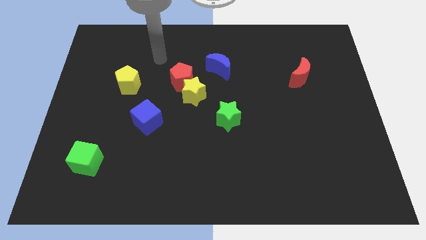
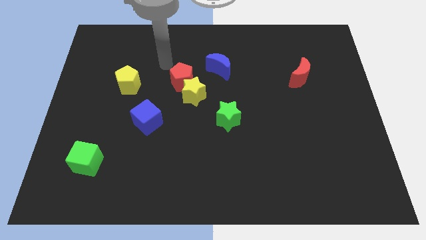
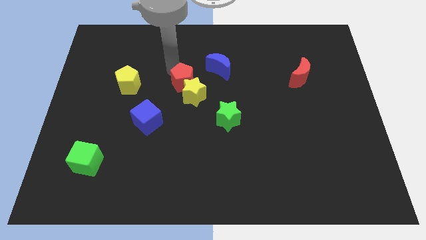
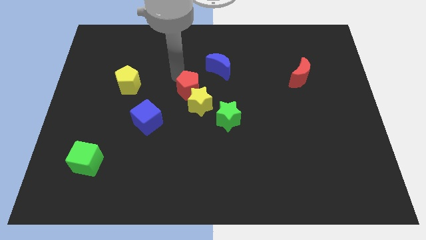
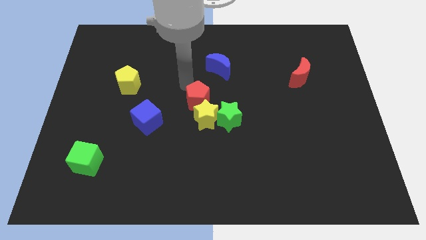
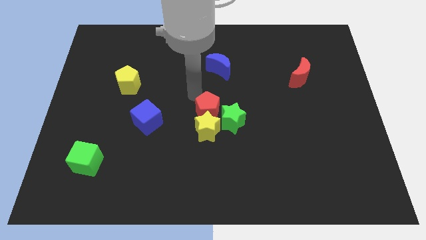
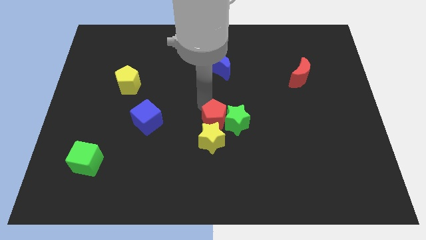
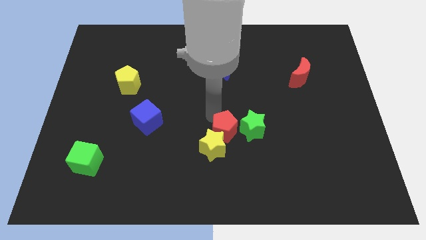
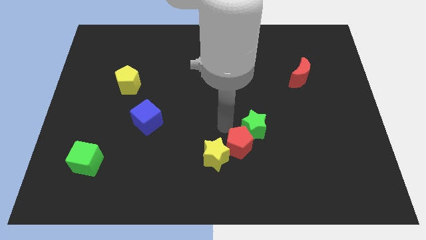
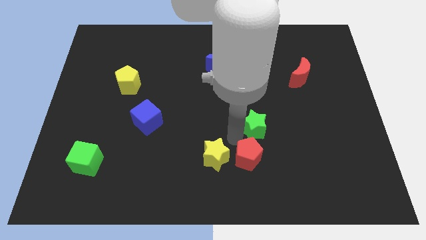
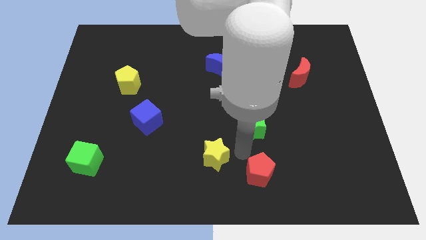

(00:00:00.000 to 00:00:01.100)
separate the yellow star from the red pentagon

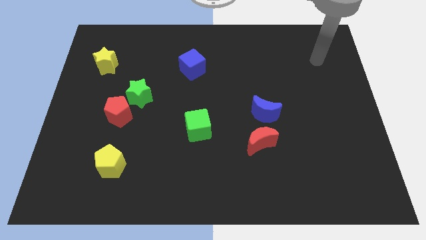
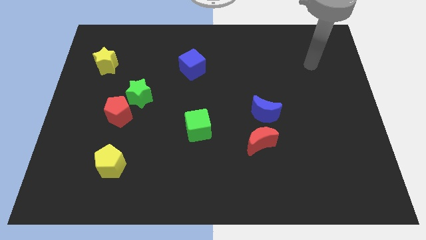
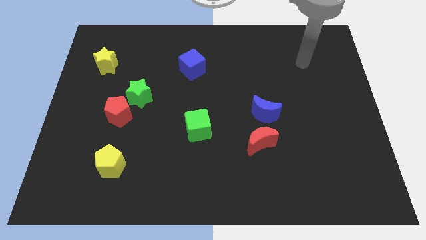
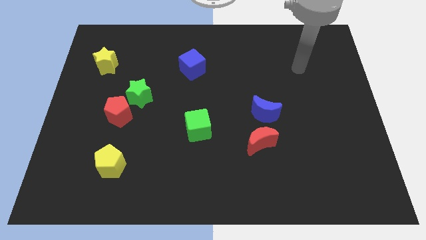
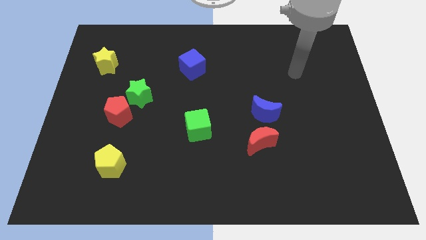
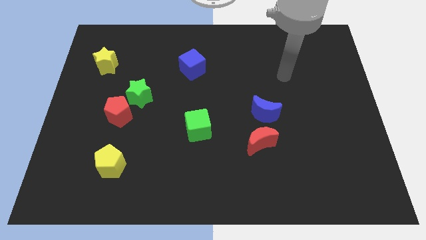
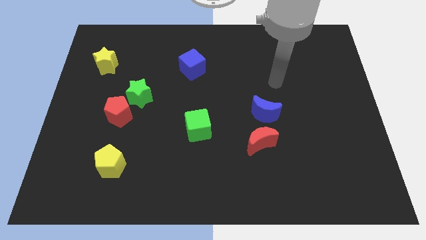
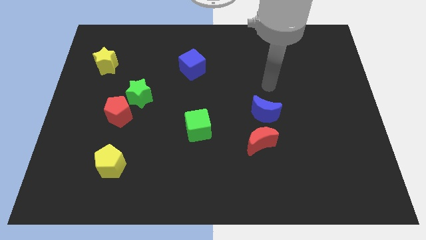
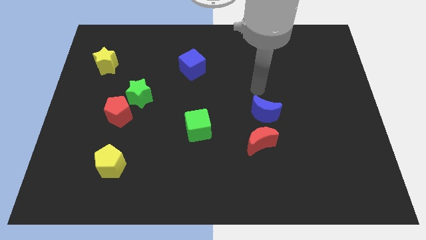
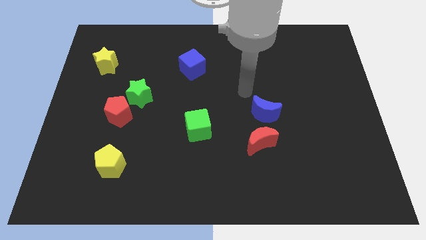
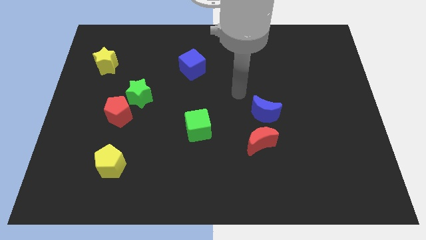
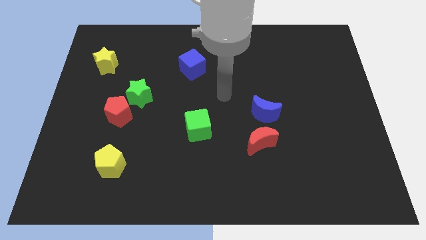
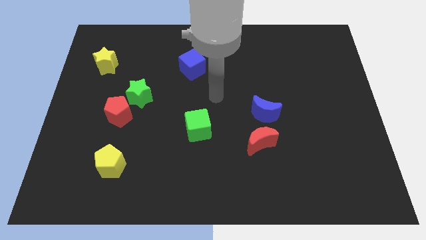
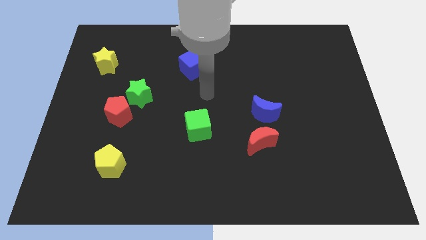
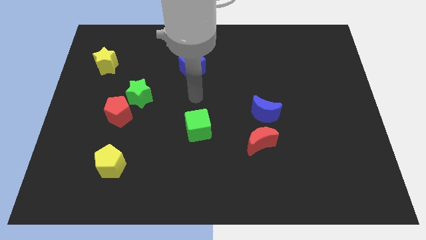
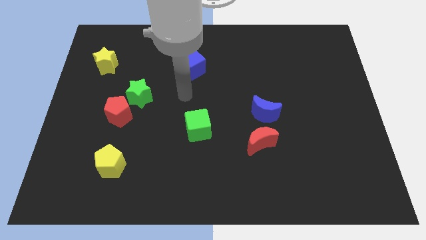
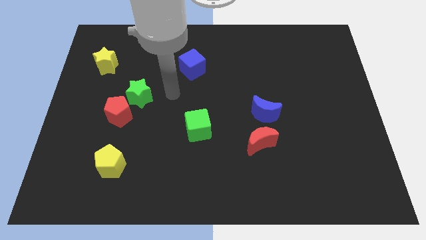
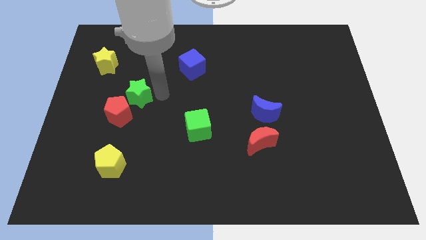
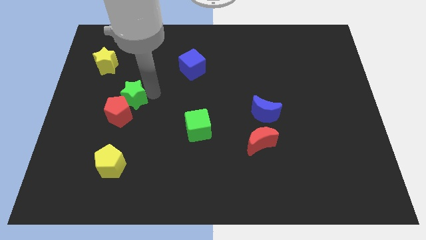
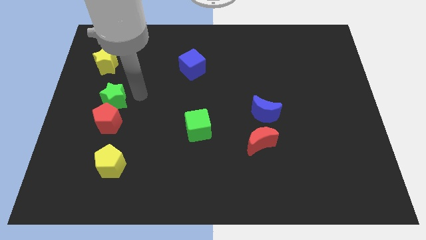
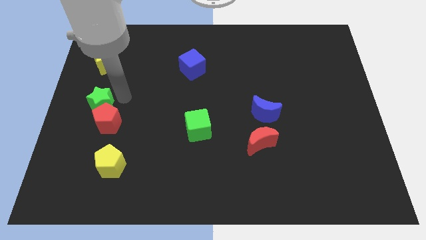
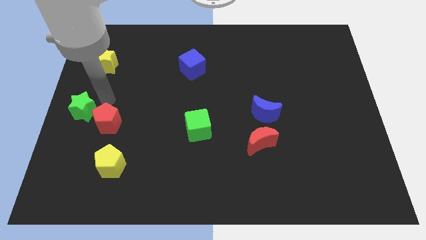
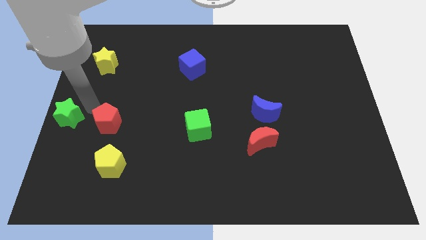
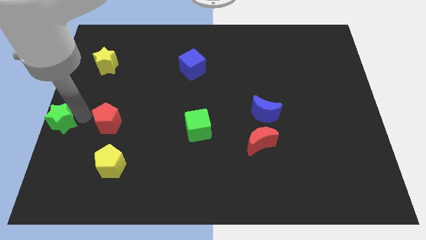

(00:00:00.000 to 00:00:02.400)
separate the red pentagon from the green star

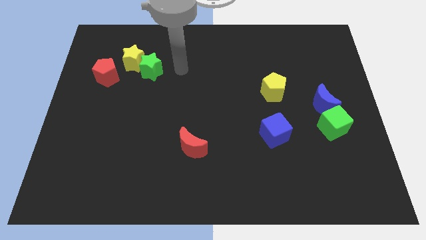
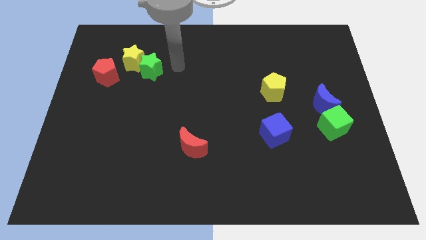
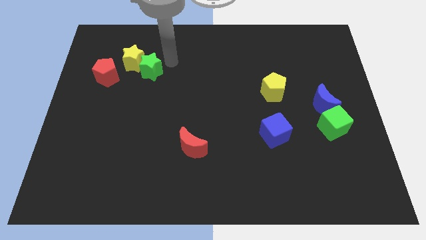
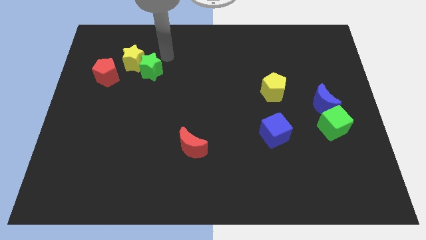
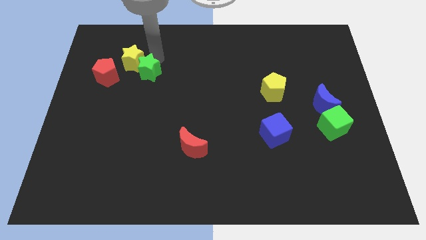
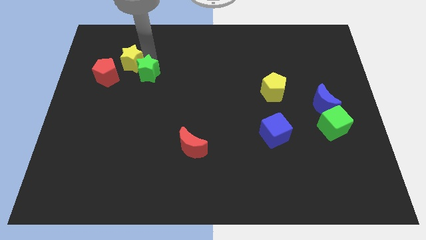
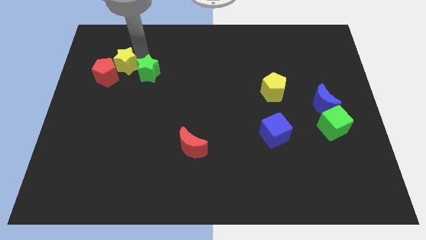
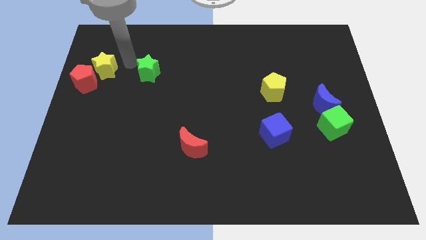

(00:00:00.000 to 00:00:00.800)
move the green star away from the yellow star

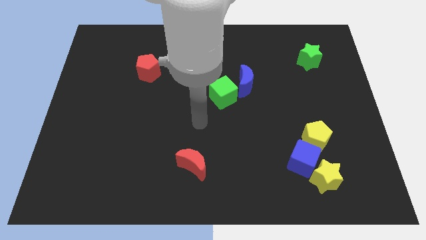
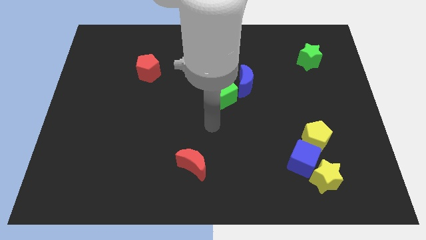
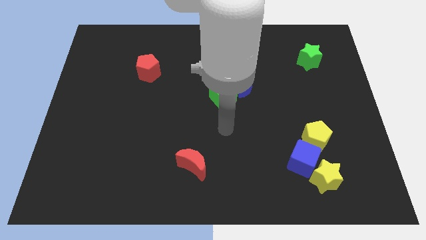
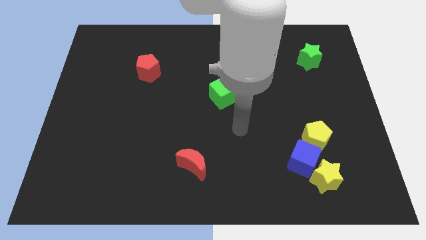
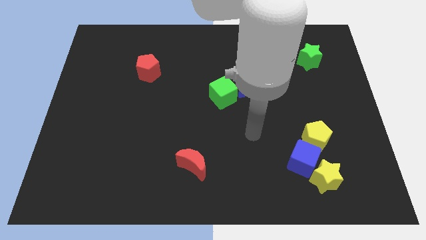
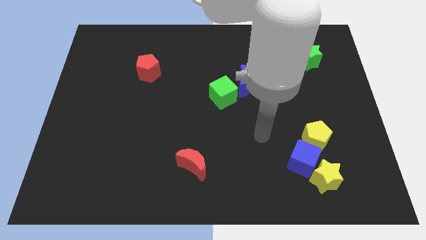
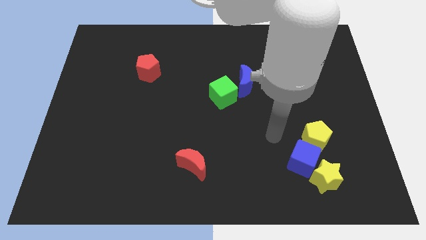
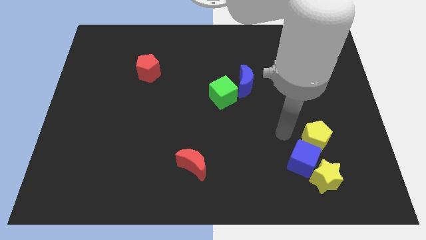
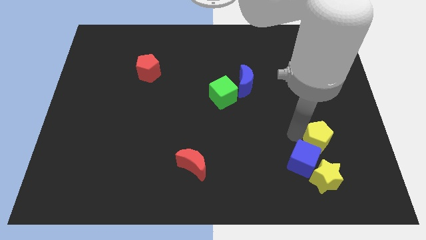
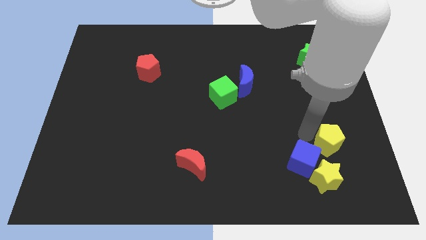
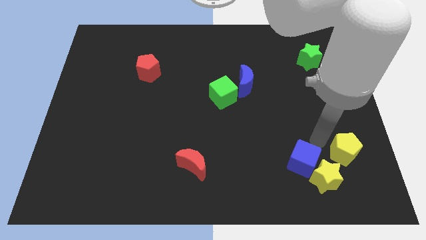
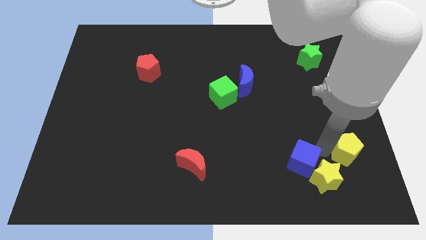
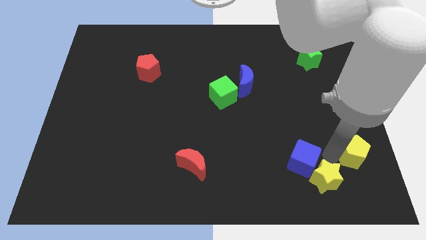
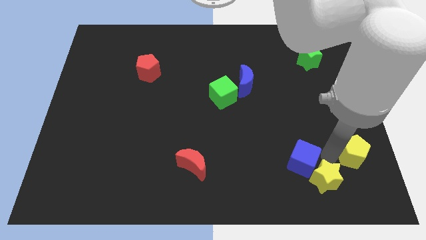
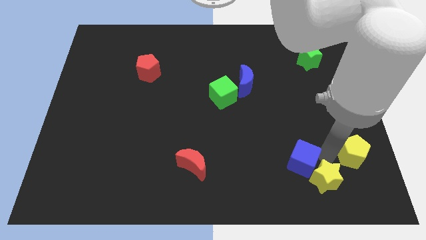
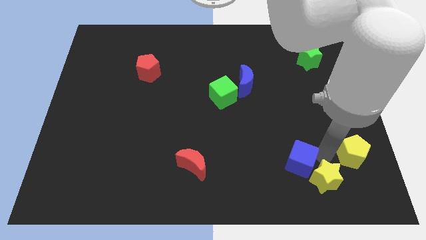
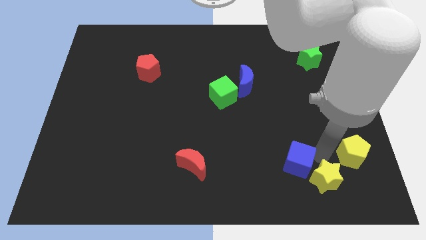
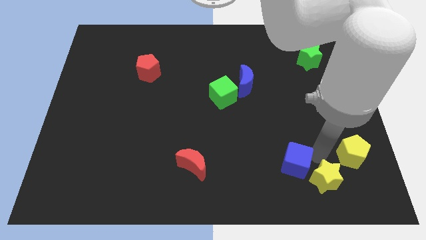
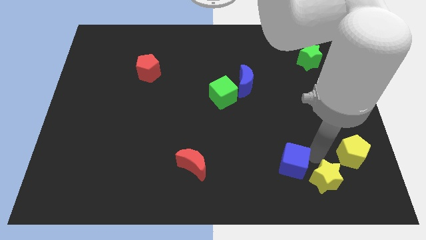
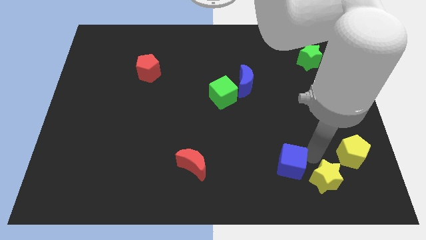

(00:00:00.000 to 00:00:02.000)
move the blue cube away from the yellow star and yellow pentagon

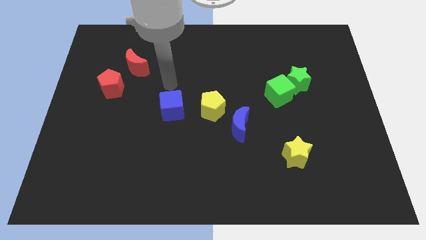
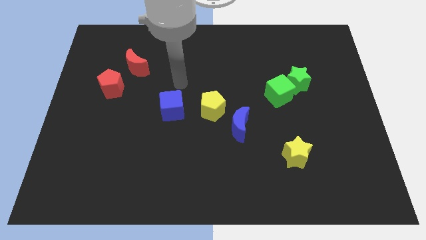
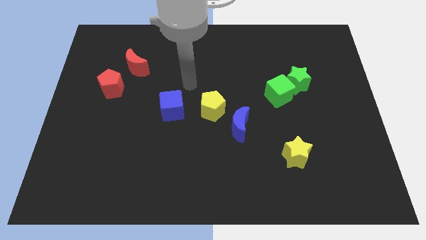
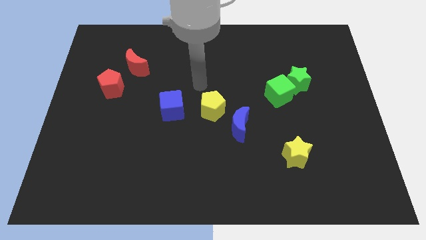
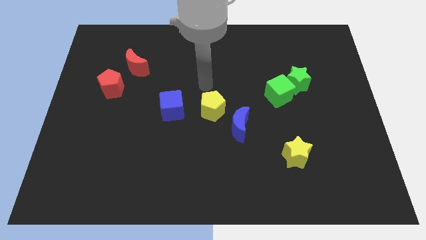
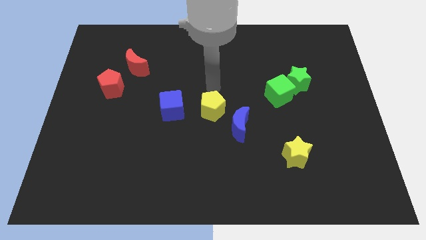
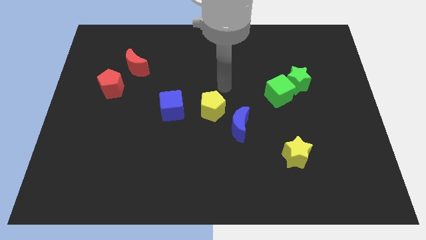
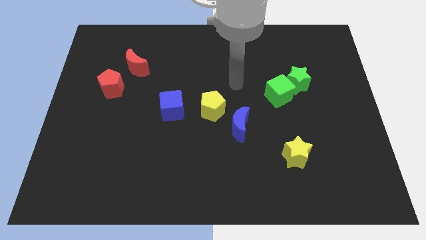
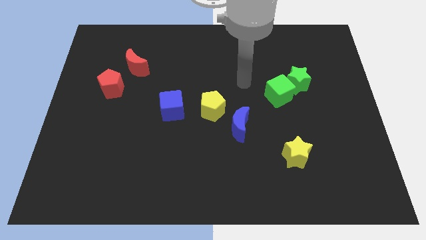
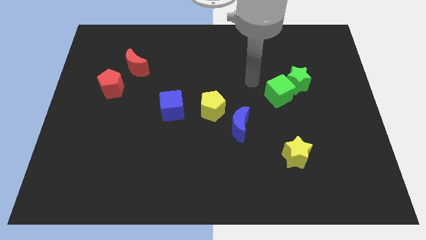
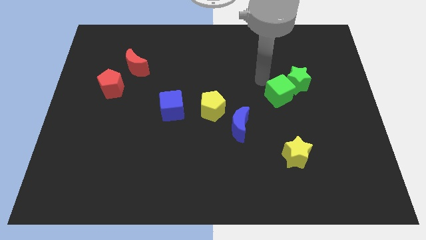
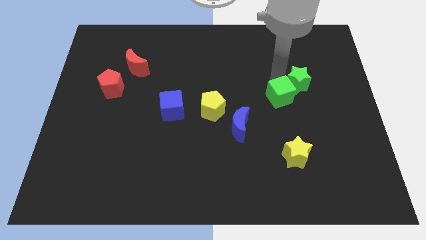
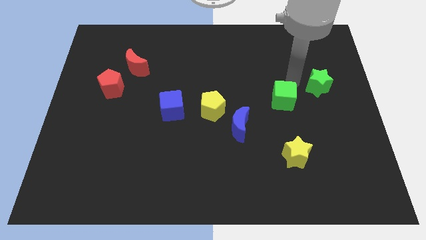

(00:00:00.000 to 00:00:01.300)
pull the green cube apart from the green star

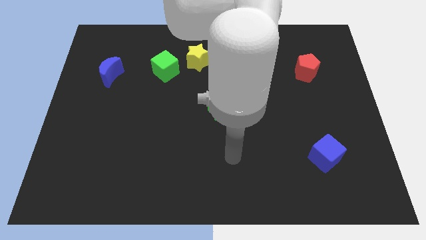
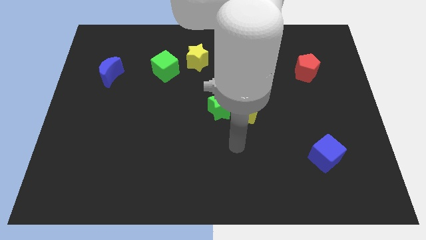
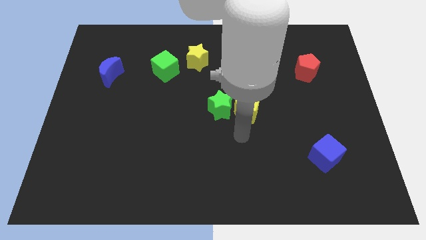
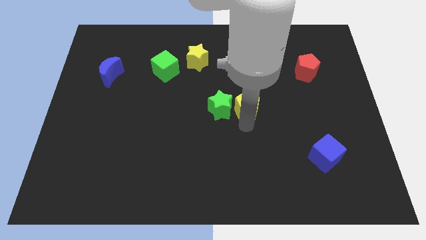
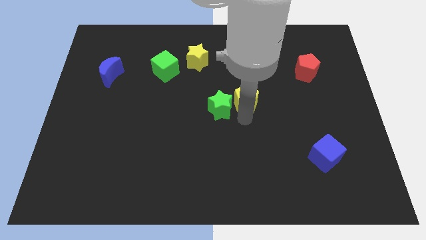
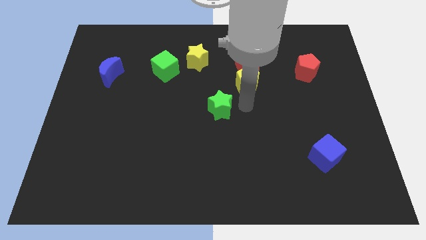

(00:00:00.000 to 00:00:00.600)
pull the green star apart from the yellow pentagon

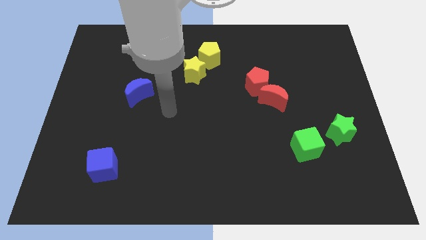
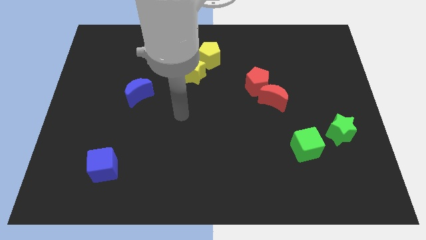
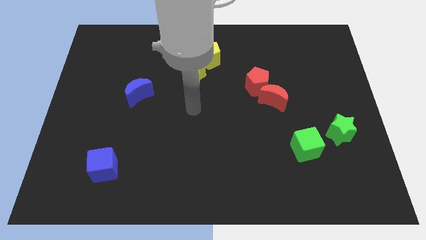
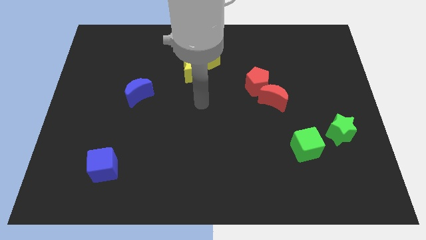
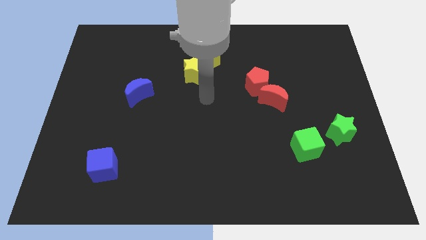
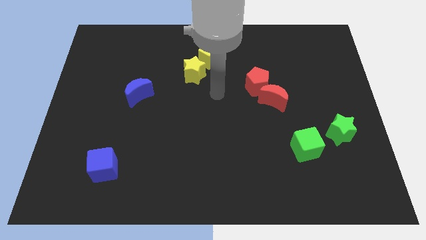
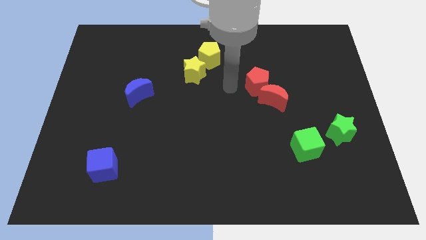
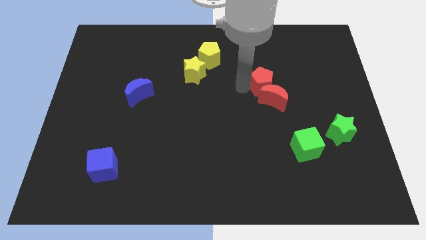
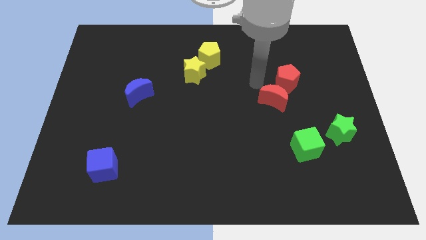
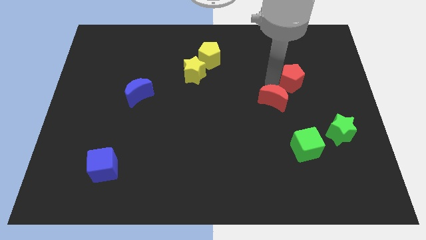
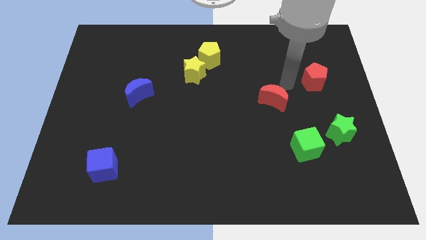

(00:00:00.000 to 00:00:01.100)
move the red moon away from the red pentagon
